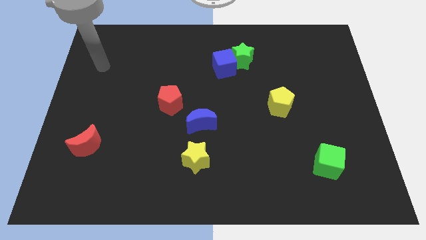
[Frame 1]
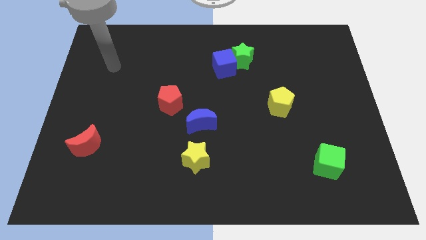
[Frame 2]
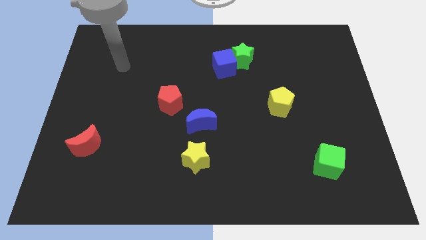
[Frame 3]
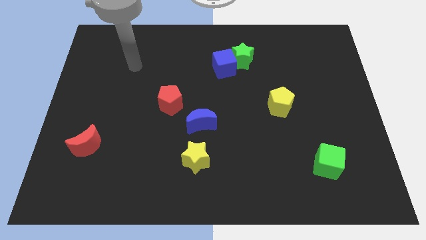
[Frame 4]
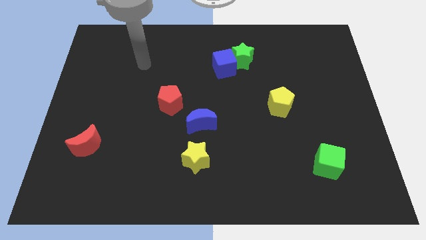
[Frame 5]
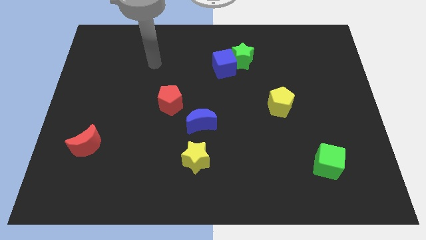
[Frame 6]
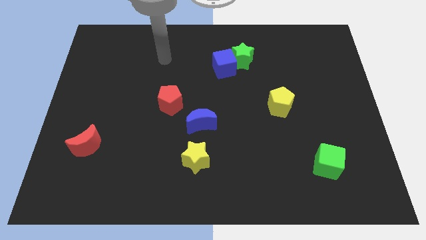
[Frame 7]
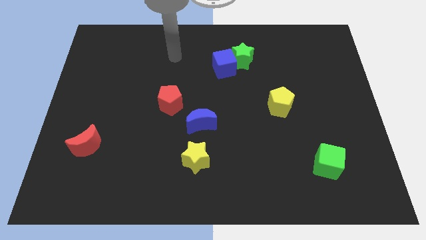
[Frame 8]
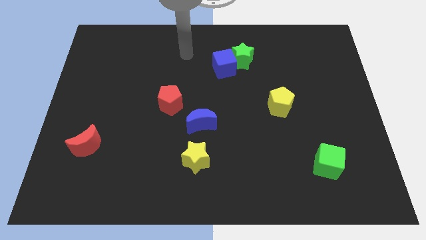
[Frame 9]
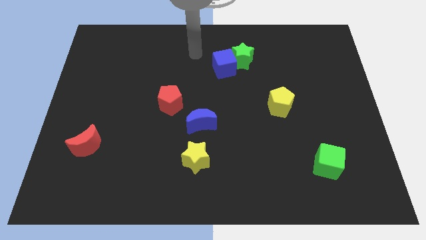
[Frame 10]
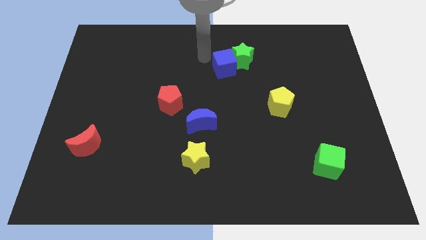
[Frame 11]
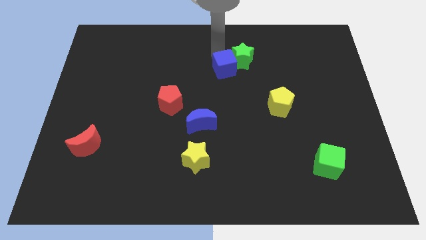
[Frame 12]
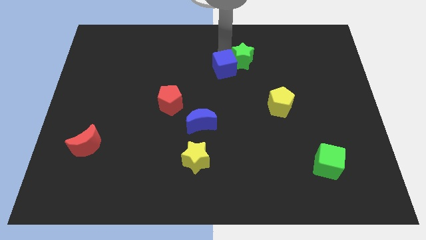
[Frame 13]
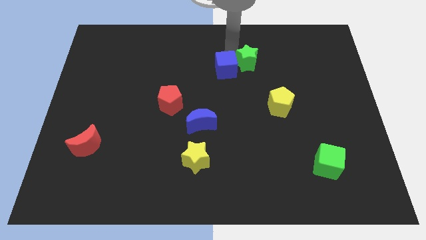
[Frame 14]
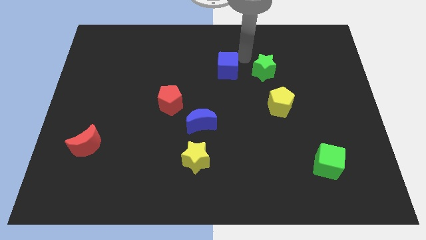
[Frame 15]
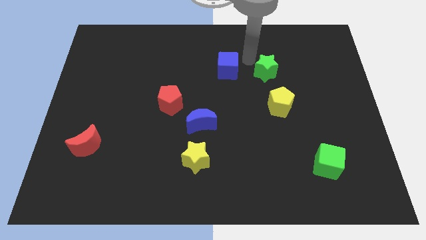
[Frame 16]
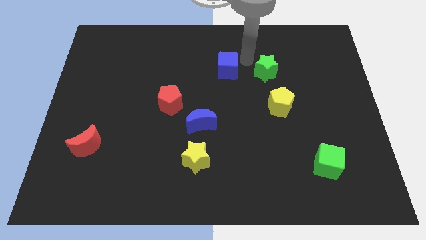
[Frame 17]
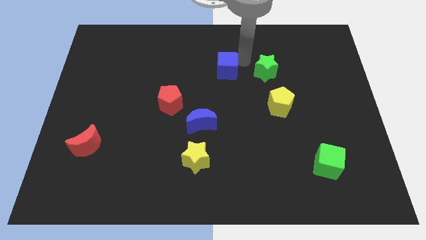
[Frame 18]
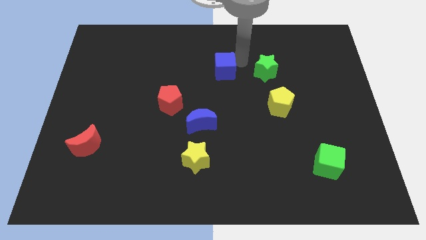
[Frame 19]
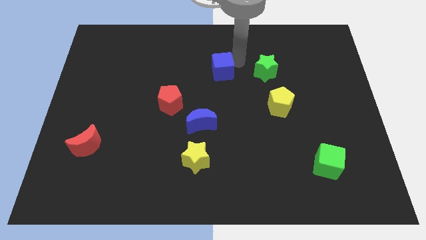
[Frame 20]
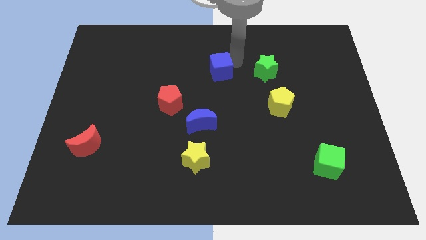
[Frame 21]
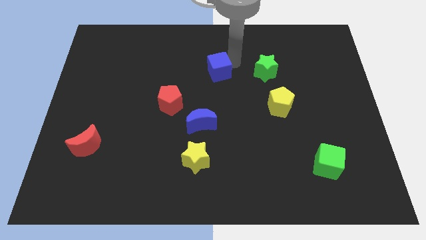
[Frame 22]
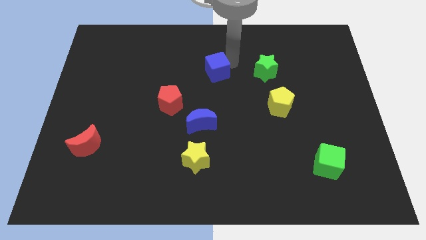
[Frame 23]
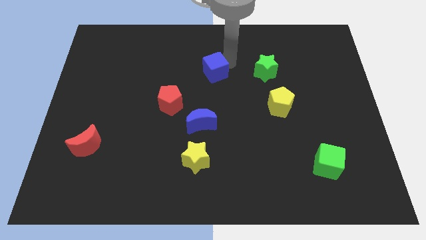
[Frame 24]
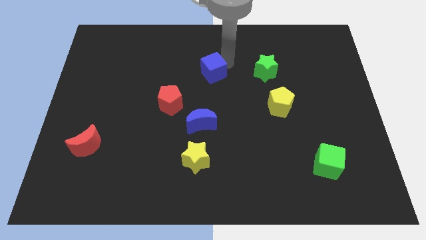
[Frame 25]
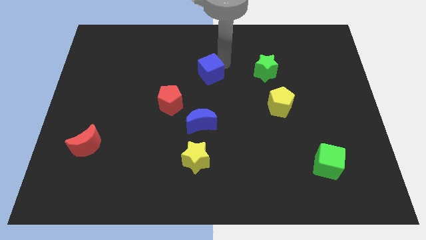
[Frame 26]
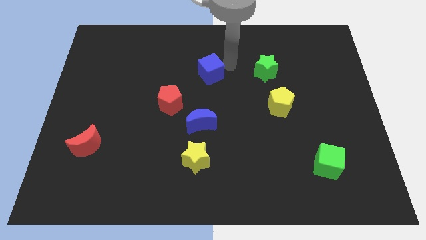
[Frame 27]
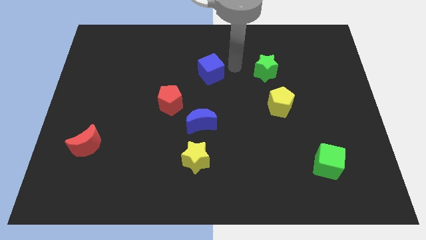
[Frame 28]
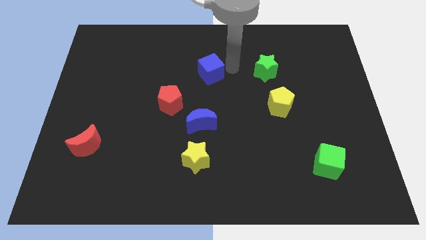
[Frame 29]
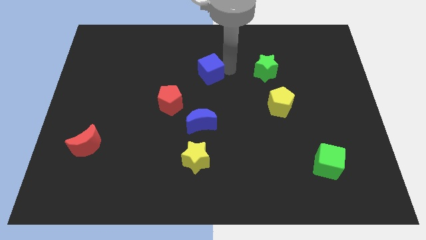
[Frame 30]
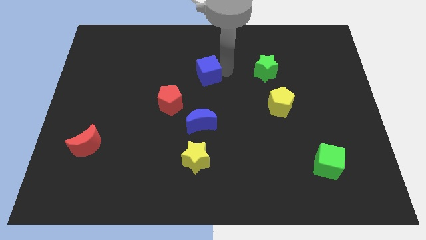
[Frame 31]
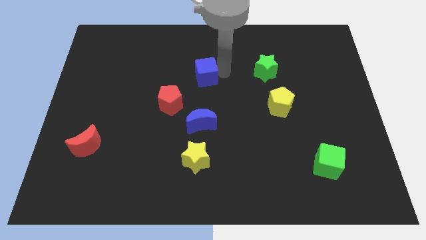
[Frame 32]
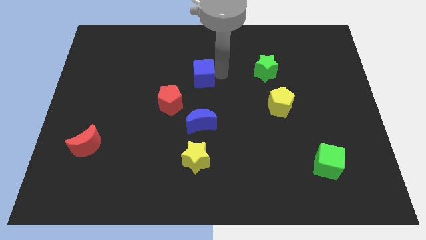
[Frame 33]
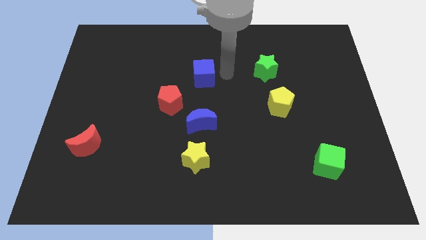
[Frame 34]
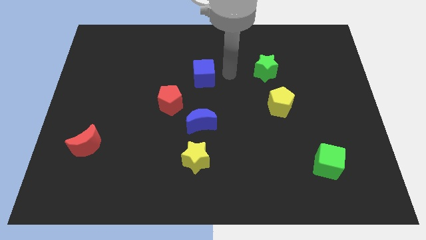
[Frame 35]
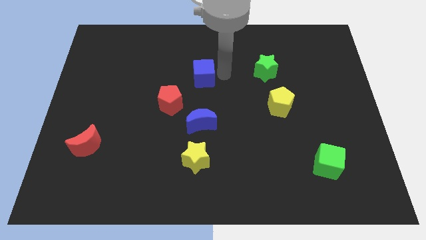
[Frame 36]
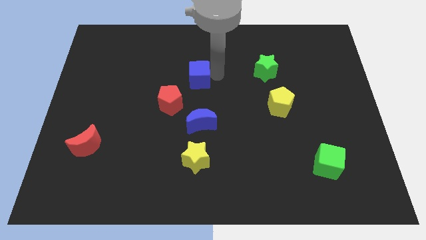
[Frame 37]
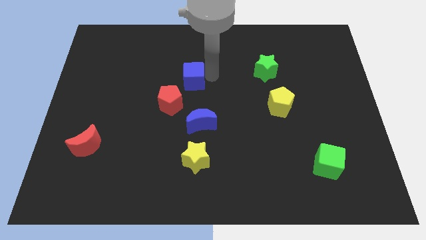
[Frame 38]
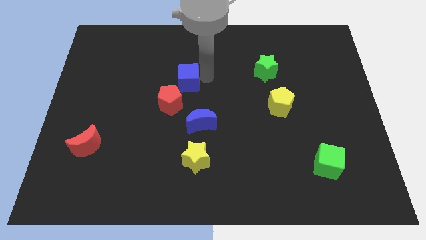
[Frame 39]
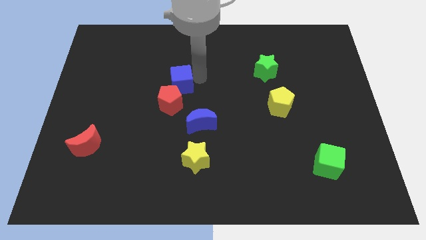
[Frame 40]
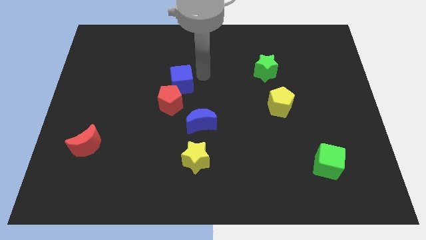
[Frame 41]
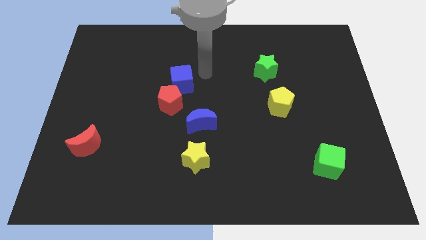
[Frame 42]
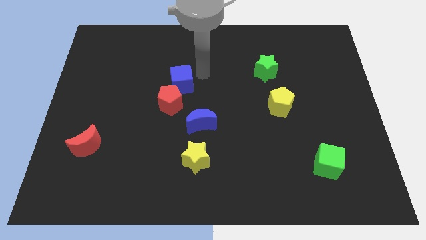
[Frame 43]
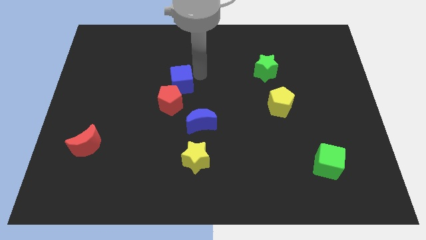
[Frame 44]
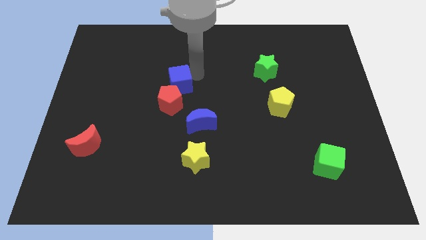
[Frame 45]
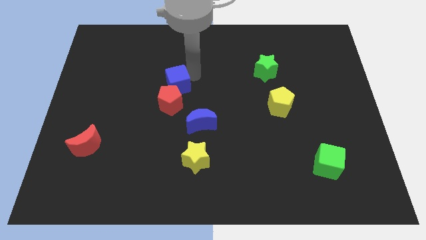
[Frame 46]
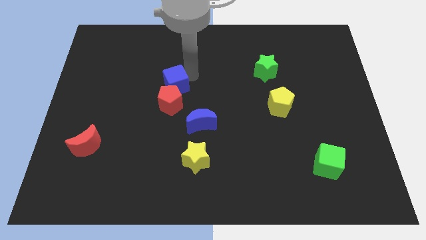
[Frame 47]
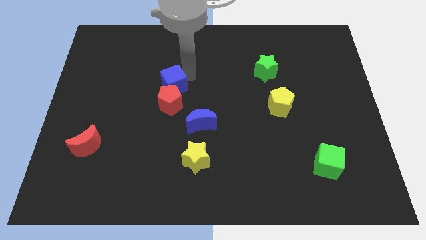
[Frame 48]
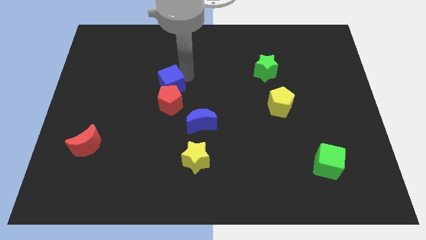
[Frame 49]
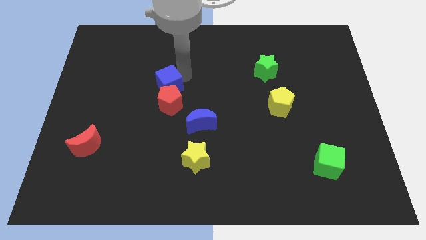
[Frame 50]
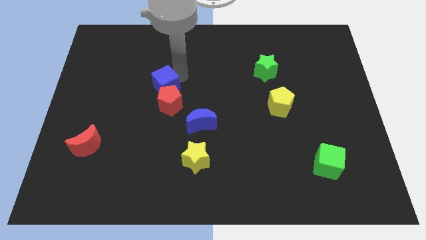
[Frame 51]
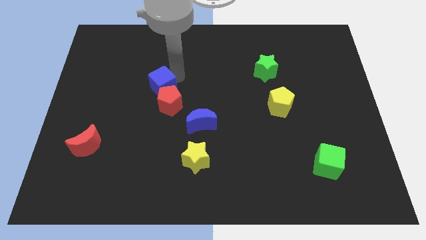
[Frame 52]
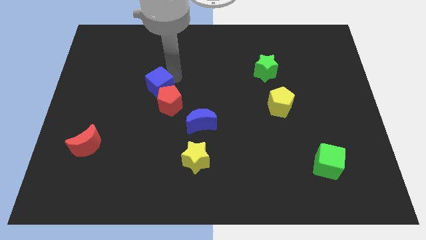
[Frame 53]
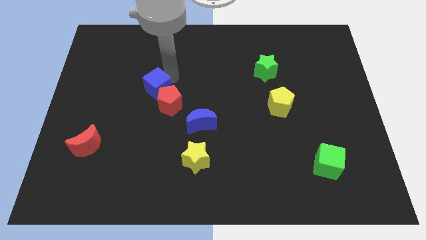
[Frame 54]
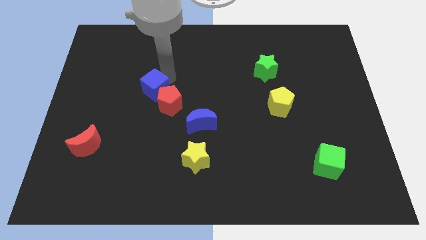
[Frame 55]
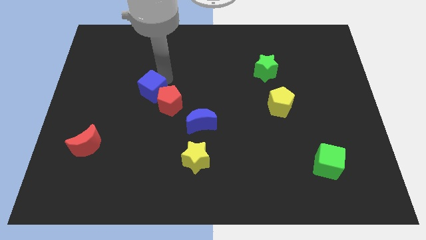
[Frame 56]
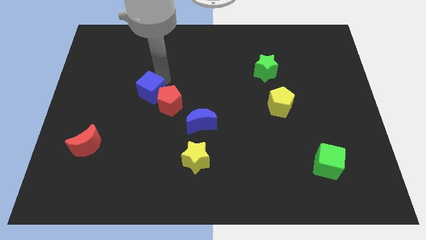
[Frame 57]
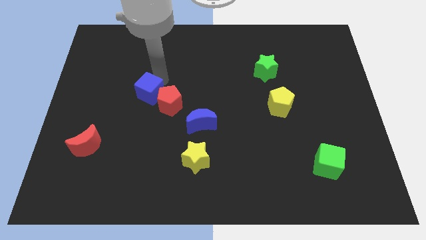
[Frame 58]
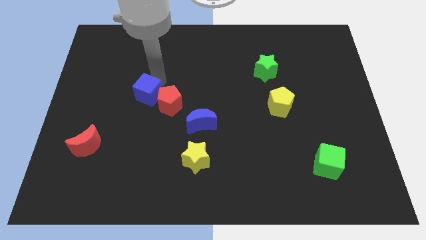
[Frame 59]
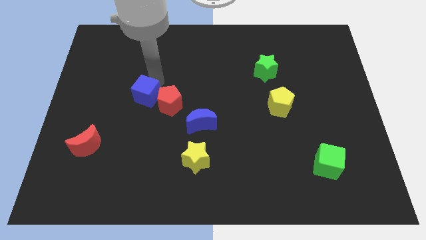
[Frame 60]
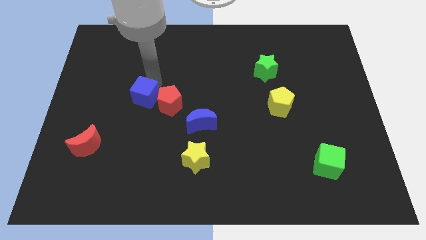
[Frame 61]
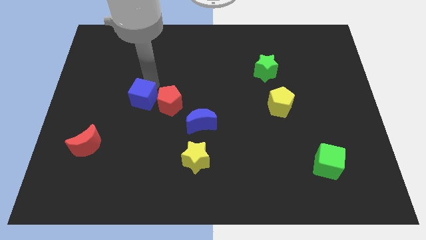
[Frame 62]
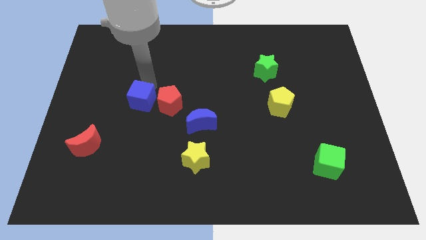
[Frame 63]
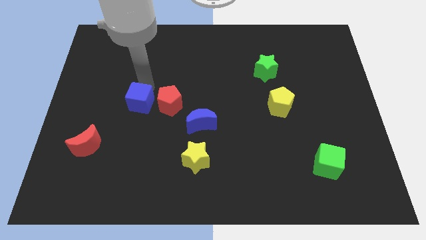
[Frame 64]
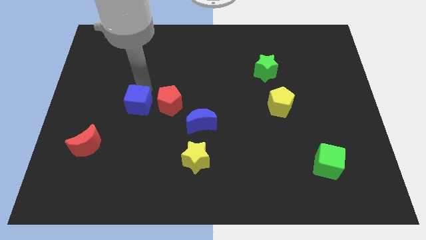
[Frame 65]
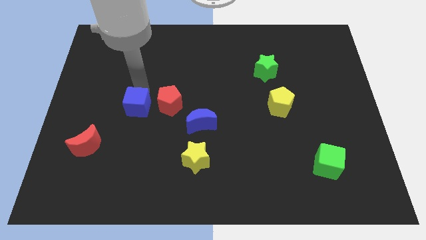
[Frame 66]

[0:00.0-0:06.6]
slide the blue cube diagonally down and to the left of the red pentagon

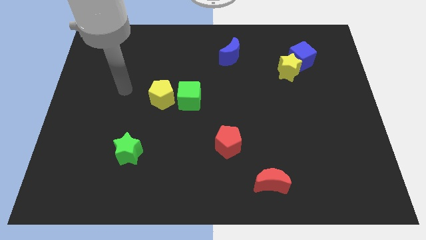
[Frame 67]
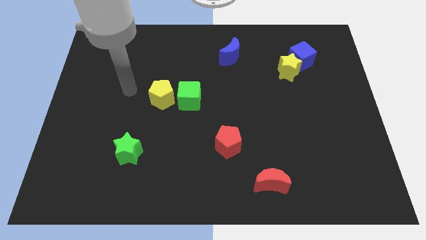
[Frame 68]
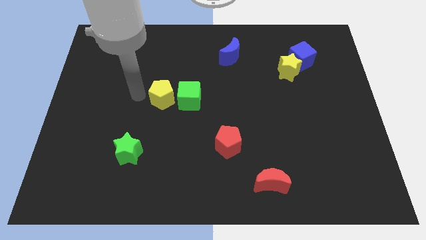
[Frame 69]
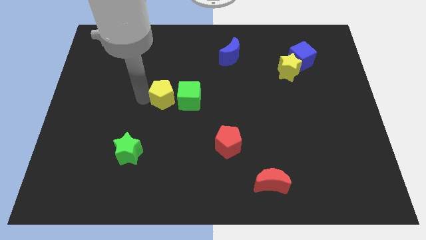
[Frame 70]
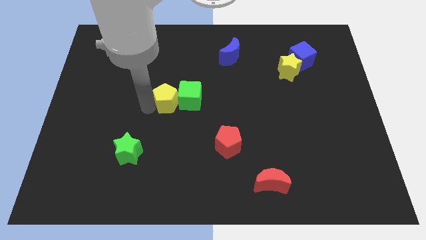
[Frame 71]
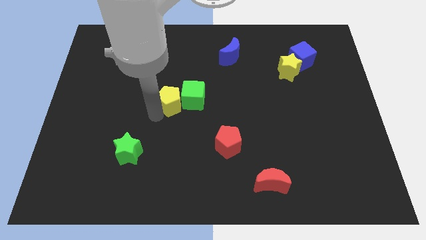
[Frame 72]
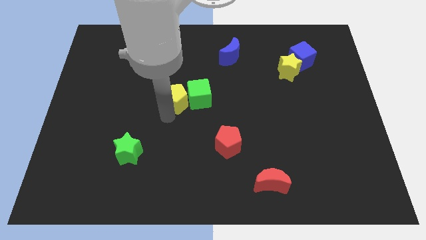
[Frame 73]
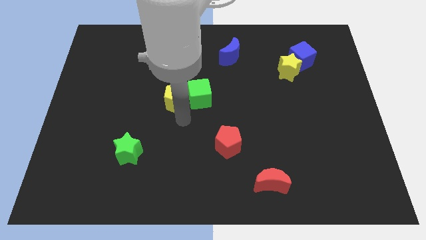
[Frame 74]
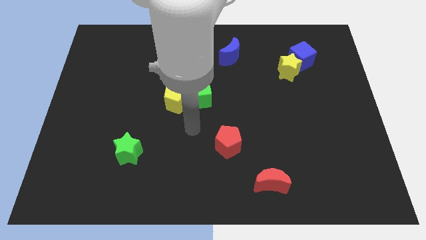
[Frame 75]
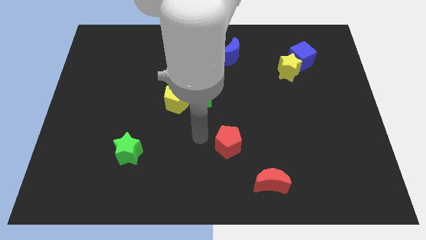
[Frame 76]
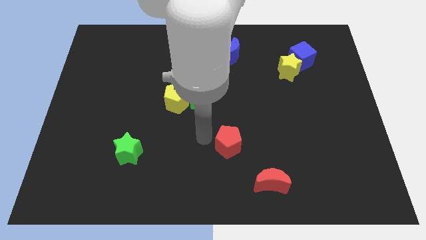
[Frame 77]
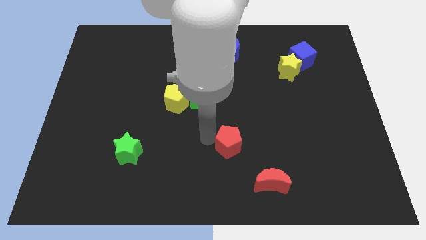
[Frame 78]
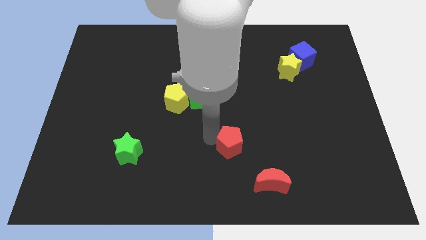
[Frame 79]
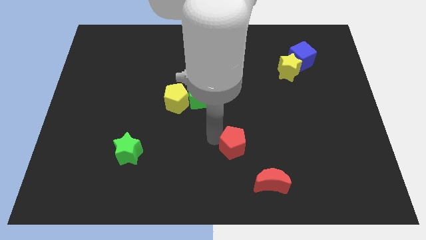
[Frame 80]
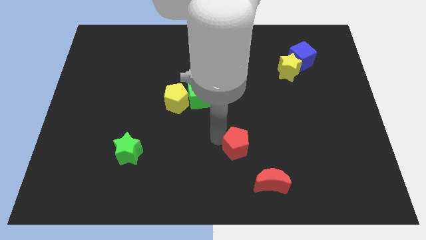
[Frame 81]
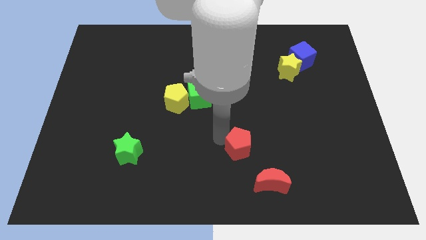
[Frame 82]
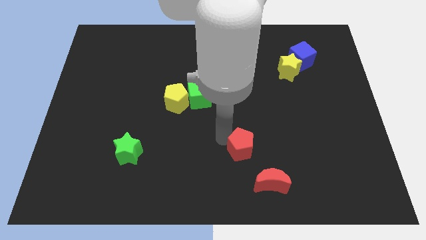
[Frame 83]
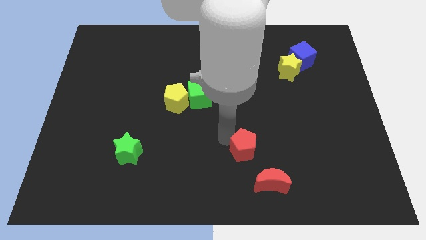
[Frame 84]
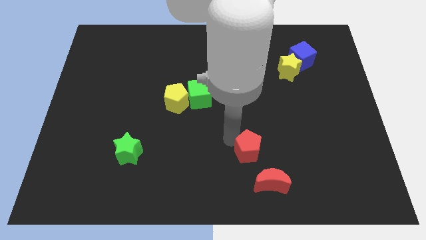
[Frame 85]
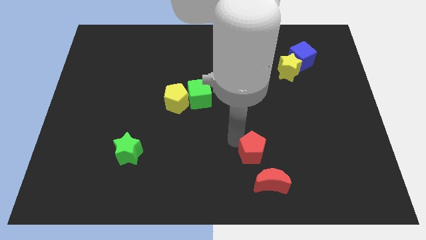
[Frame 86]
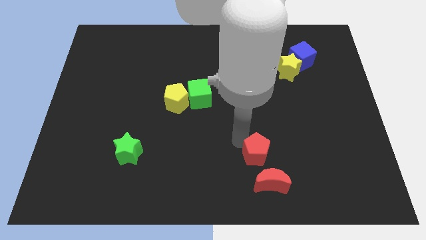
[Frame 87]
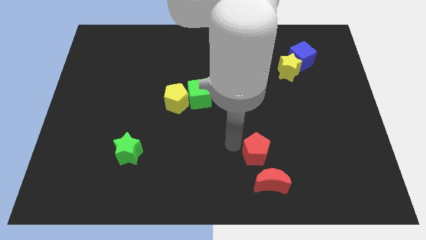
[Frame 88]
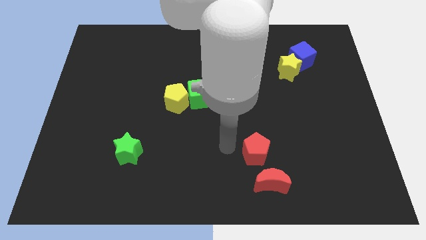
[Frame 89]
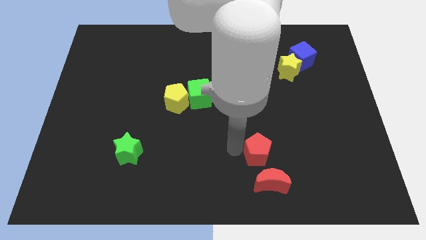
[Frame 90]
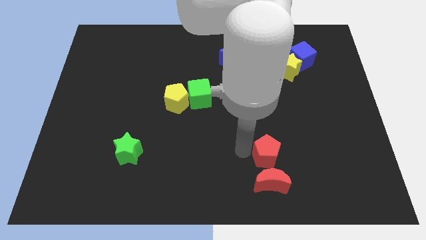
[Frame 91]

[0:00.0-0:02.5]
put the red pentagon diagonally up and to the right of the red moon
